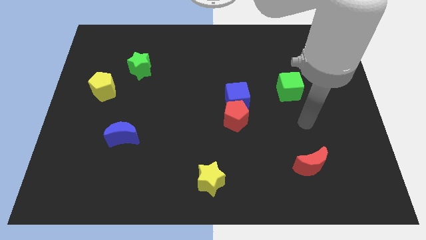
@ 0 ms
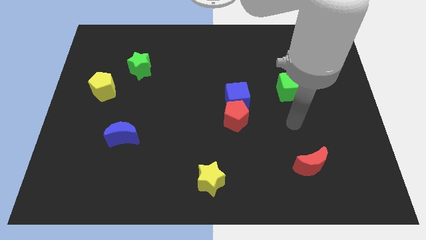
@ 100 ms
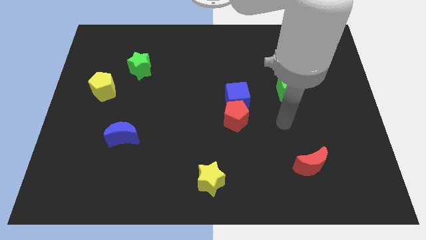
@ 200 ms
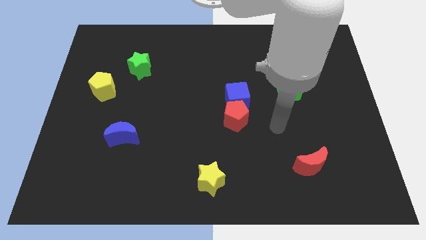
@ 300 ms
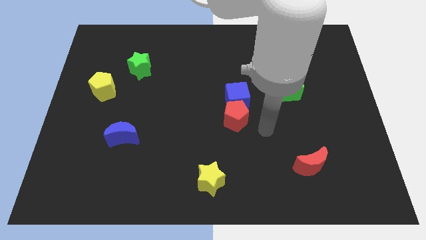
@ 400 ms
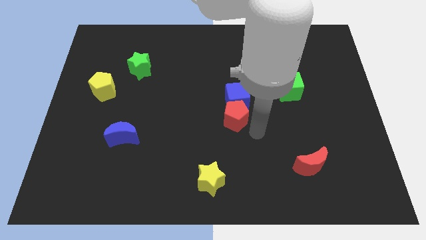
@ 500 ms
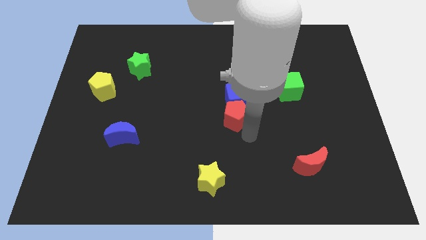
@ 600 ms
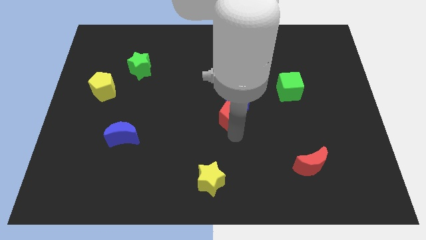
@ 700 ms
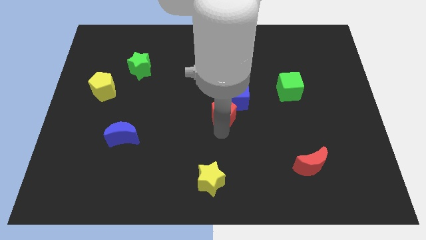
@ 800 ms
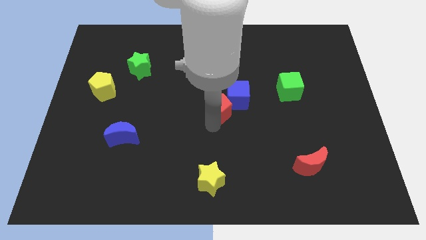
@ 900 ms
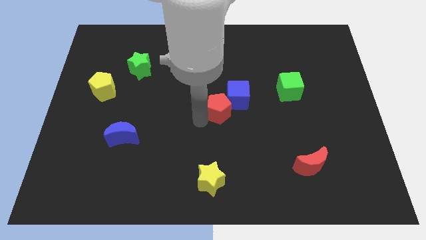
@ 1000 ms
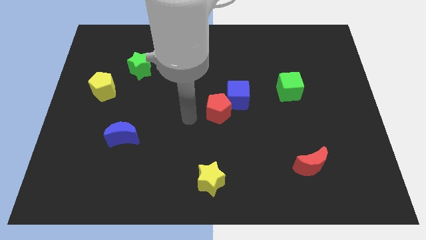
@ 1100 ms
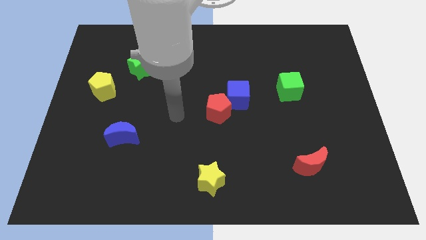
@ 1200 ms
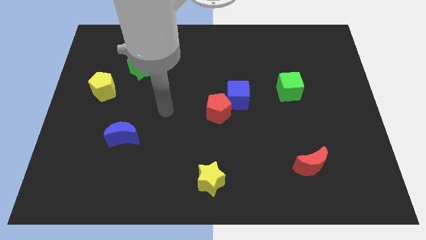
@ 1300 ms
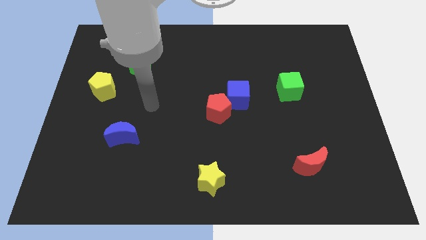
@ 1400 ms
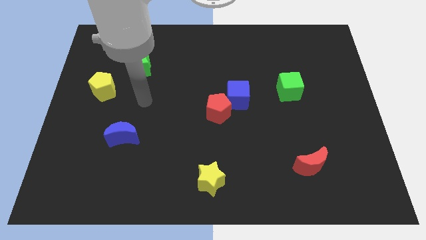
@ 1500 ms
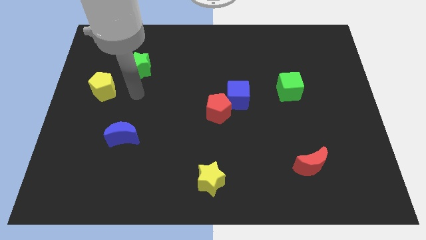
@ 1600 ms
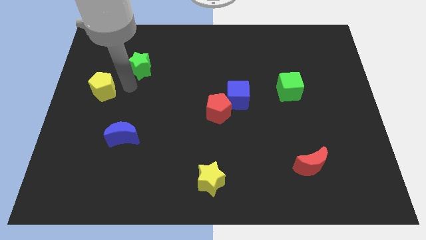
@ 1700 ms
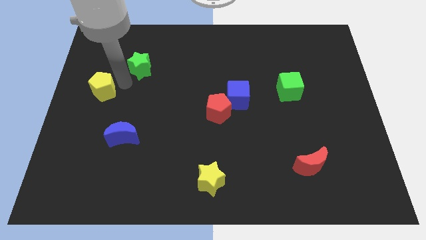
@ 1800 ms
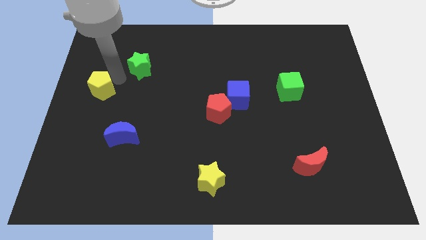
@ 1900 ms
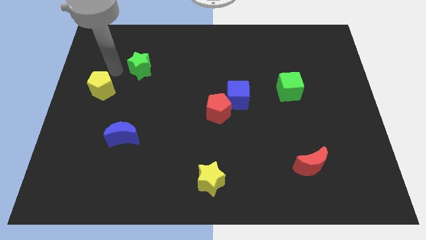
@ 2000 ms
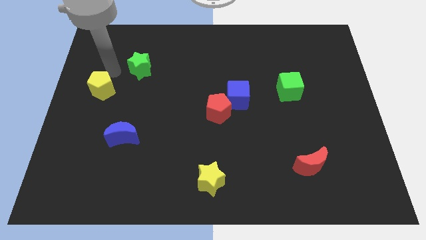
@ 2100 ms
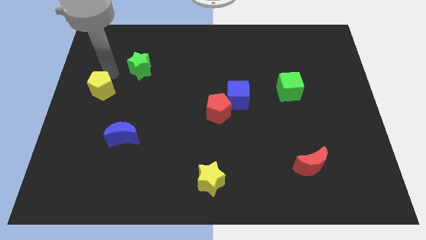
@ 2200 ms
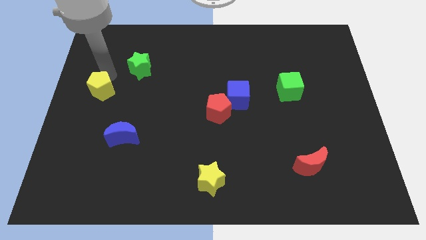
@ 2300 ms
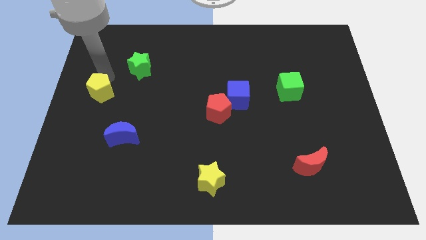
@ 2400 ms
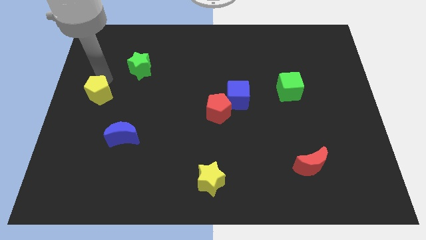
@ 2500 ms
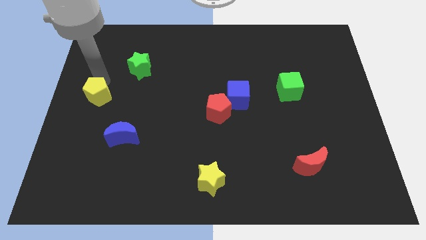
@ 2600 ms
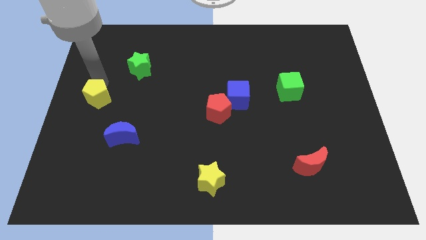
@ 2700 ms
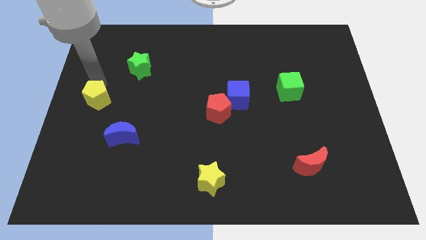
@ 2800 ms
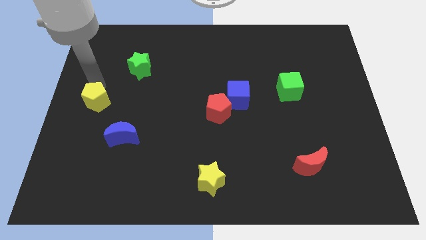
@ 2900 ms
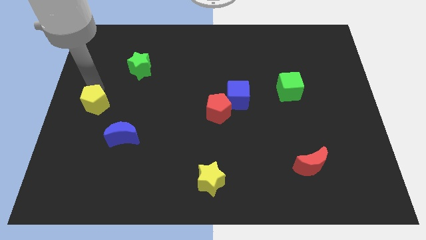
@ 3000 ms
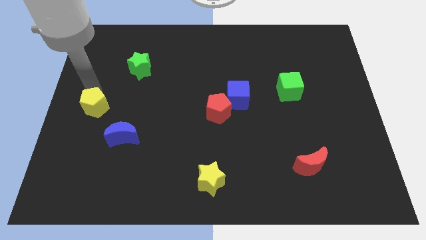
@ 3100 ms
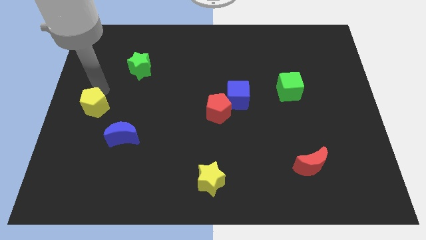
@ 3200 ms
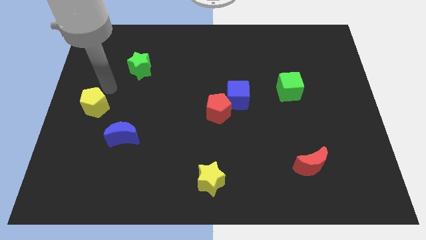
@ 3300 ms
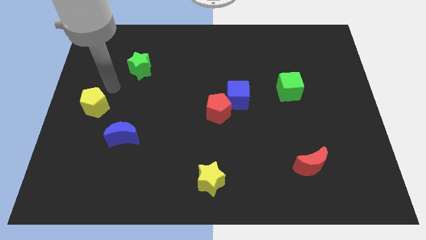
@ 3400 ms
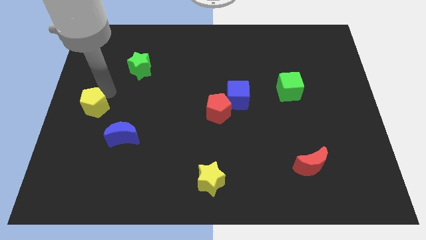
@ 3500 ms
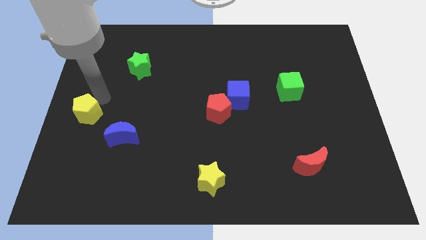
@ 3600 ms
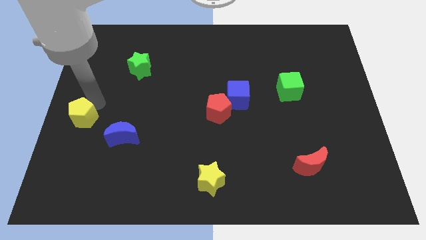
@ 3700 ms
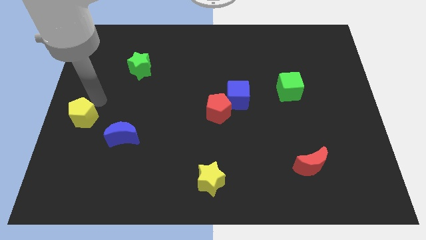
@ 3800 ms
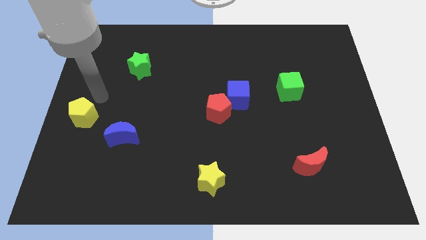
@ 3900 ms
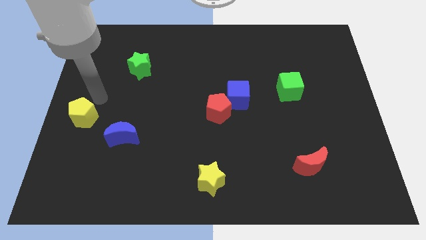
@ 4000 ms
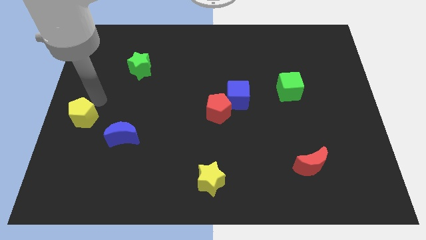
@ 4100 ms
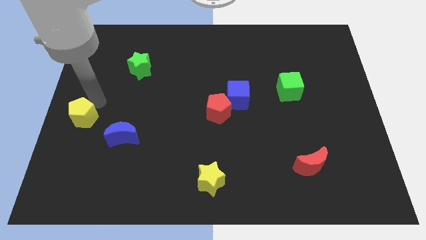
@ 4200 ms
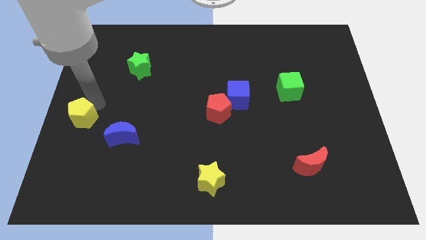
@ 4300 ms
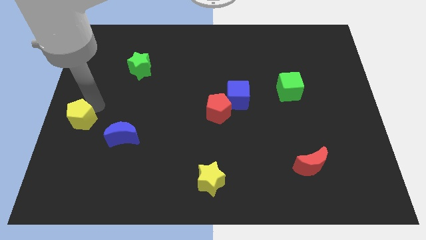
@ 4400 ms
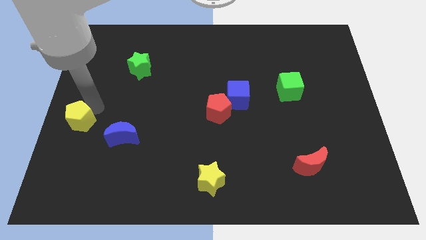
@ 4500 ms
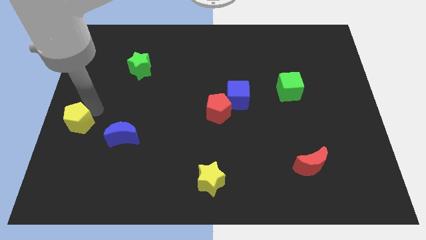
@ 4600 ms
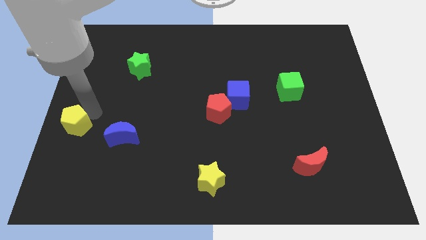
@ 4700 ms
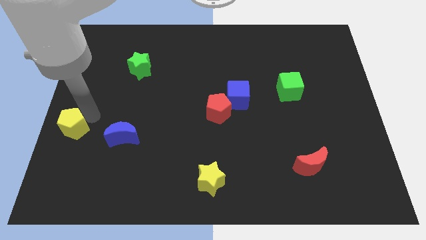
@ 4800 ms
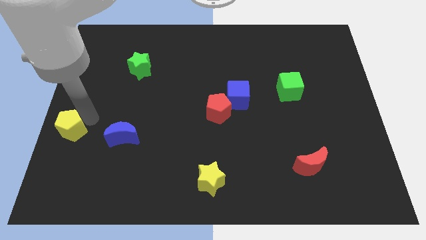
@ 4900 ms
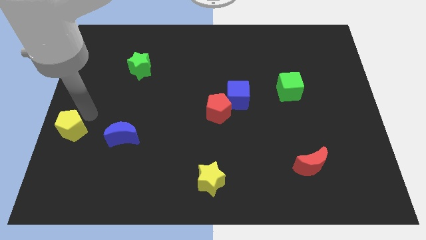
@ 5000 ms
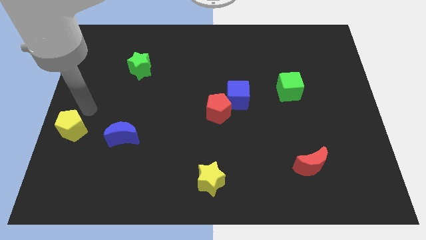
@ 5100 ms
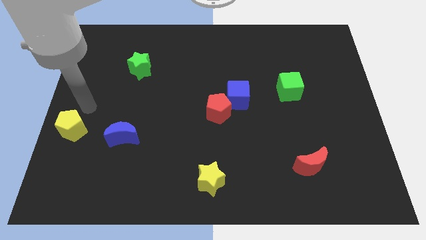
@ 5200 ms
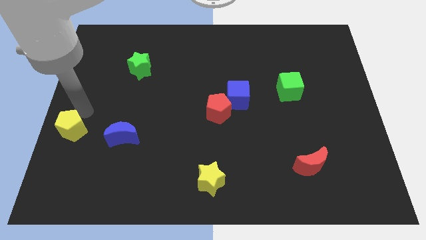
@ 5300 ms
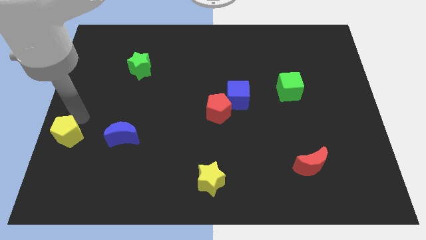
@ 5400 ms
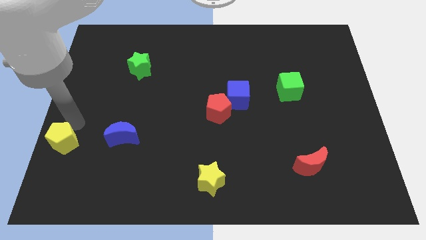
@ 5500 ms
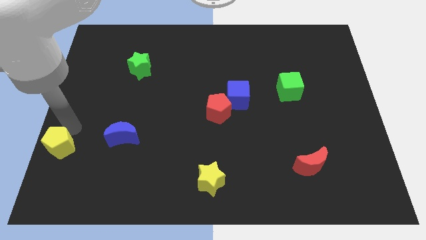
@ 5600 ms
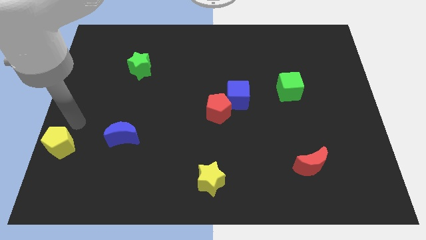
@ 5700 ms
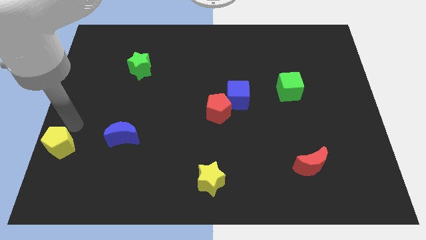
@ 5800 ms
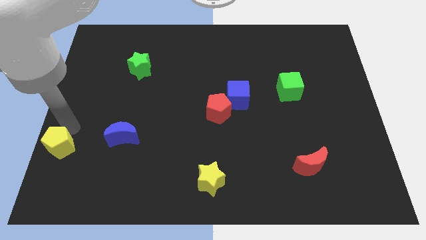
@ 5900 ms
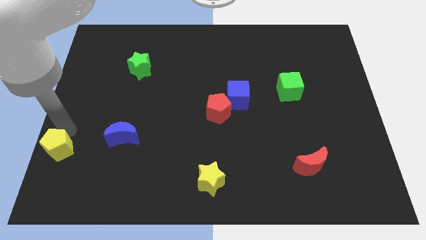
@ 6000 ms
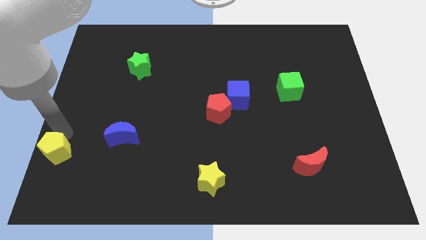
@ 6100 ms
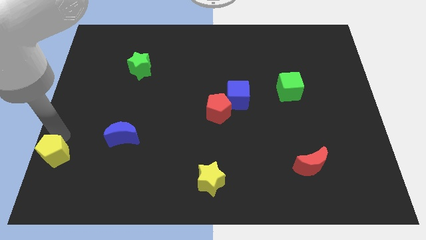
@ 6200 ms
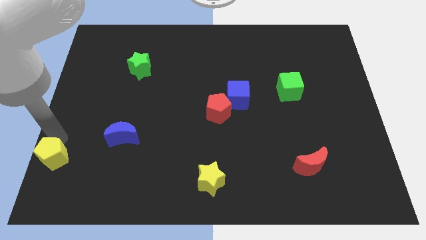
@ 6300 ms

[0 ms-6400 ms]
slide the yellow pentagon to the lower left corner
